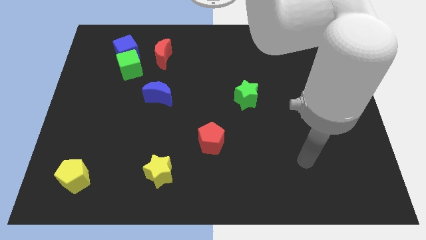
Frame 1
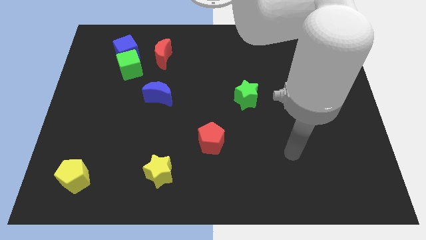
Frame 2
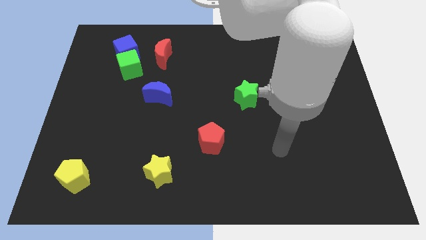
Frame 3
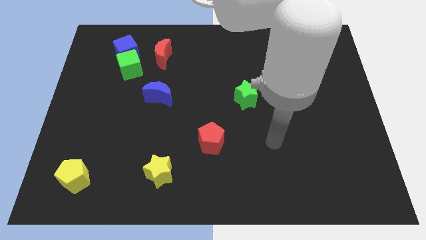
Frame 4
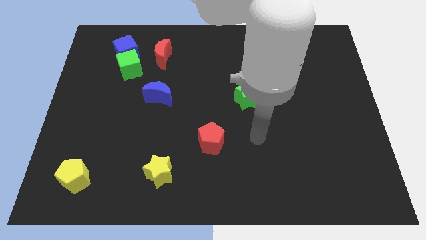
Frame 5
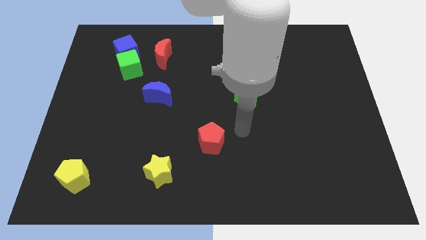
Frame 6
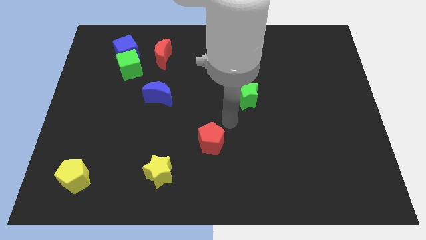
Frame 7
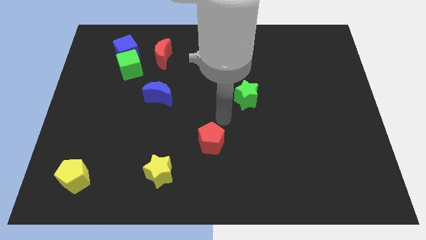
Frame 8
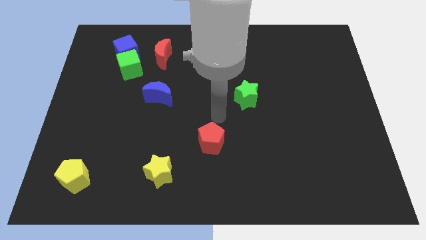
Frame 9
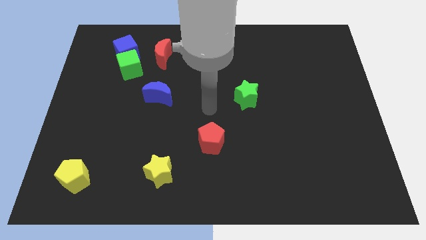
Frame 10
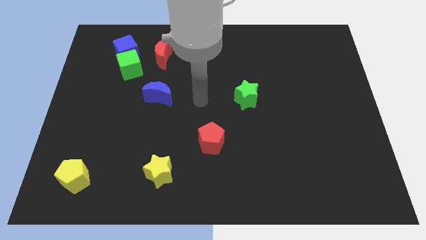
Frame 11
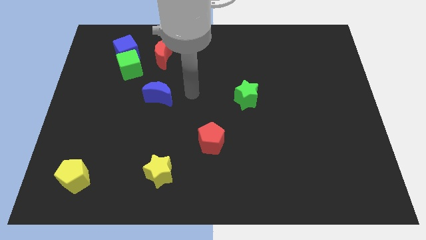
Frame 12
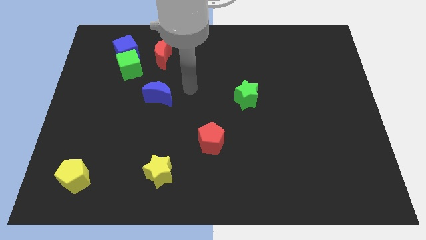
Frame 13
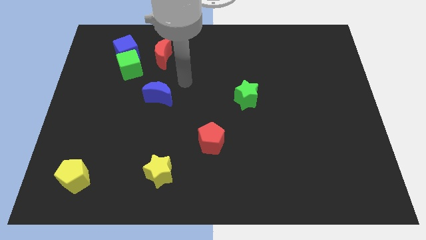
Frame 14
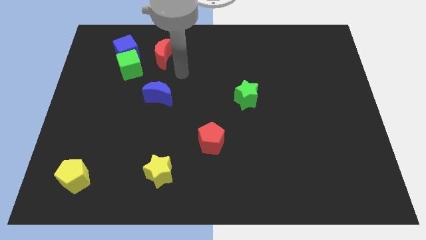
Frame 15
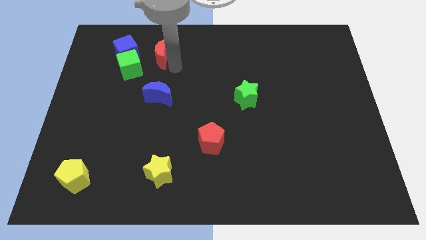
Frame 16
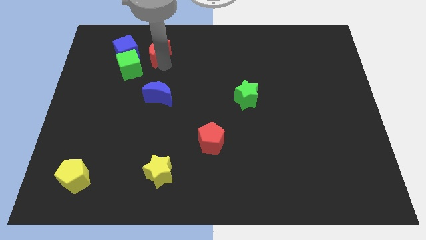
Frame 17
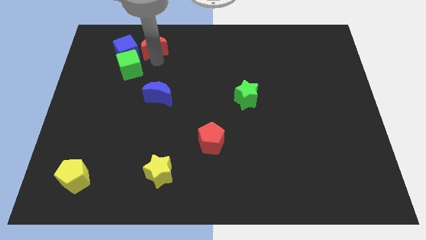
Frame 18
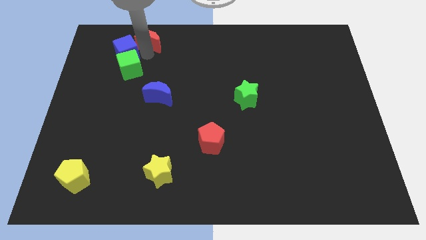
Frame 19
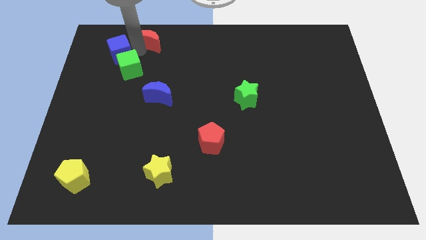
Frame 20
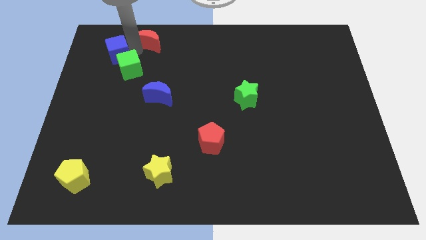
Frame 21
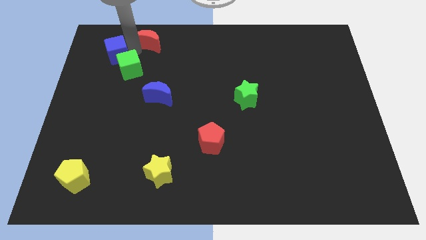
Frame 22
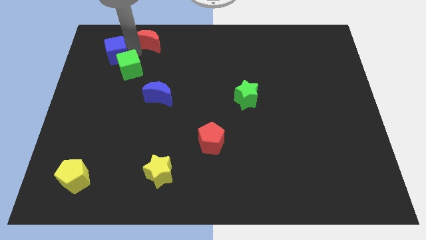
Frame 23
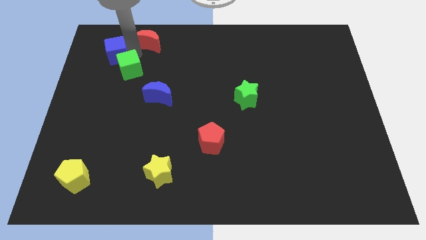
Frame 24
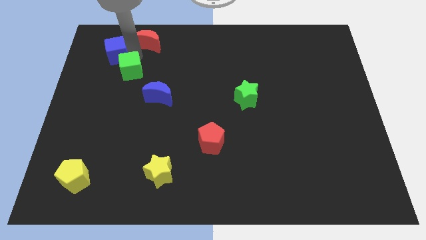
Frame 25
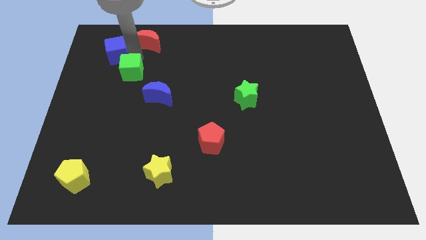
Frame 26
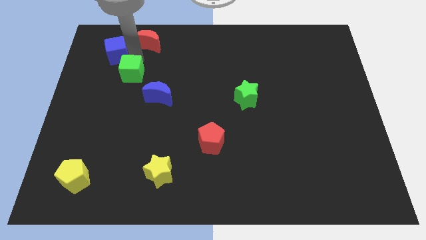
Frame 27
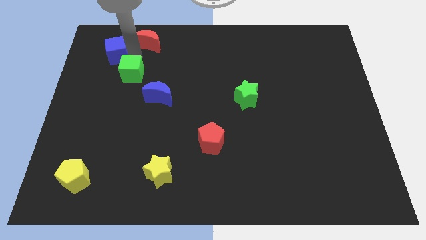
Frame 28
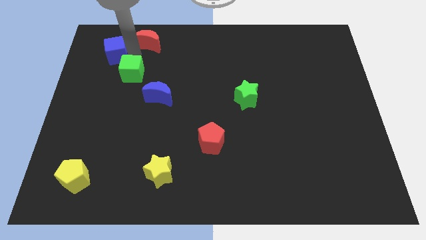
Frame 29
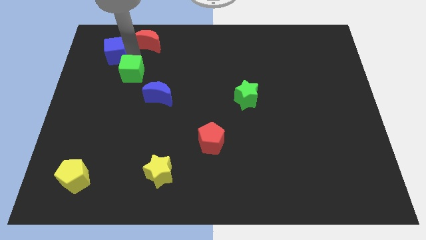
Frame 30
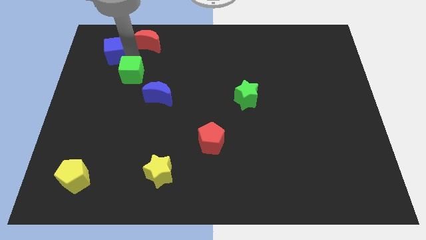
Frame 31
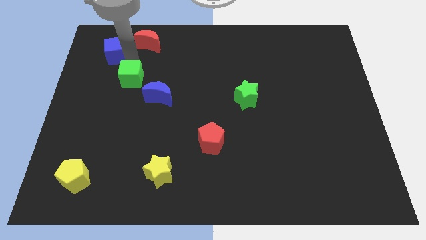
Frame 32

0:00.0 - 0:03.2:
move the green cube away from the blue cube and red moon

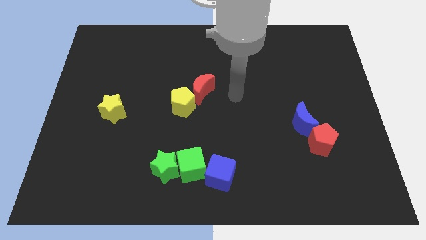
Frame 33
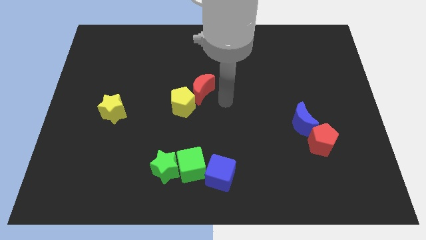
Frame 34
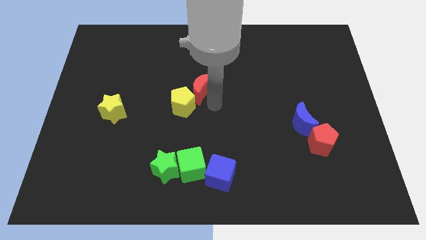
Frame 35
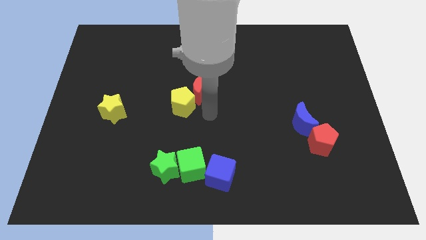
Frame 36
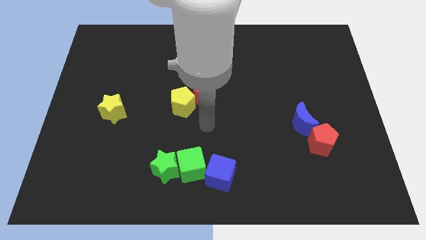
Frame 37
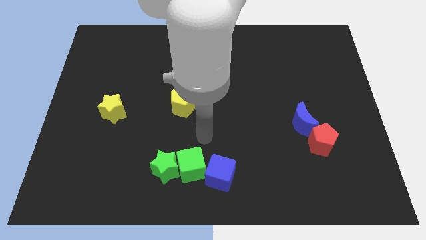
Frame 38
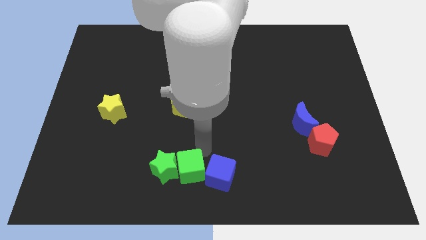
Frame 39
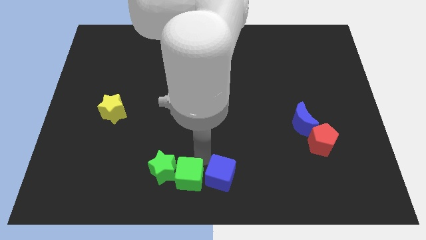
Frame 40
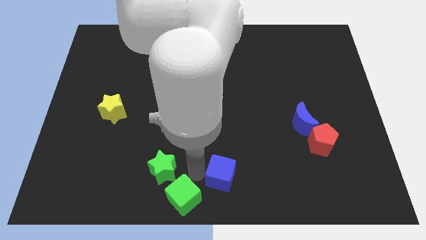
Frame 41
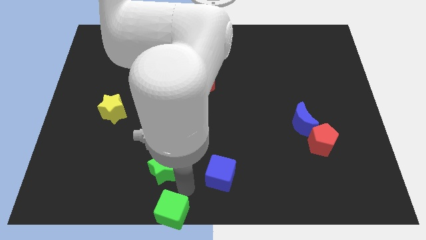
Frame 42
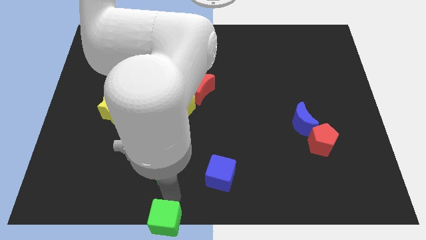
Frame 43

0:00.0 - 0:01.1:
pull the green star apart from the green cube

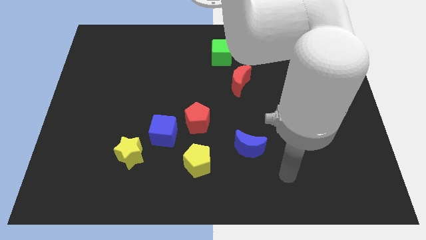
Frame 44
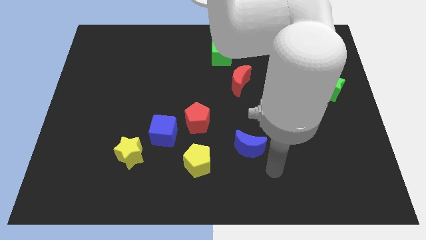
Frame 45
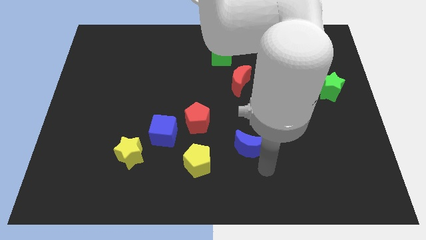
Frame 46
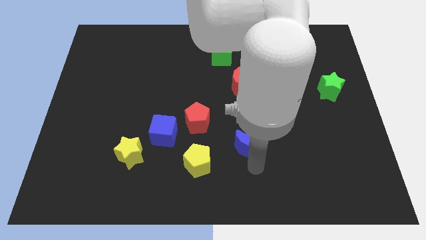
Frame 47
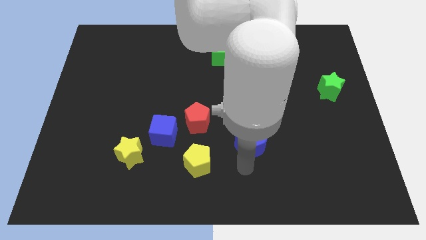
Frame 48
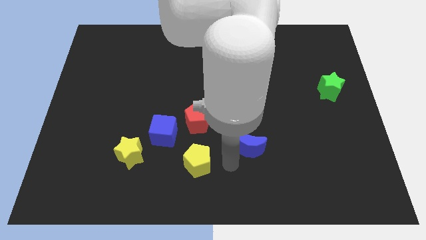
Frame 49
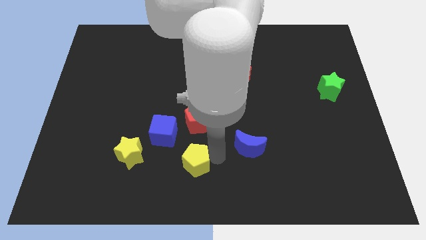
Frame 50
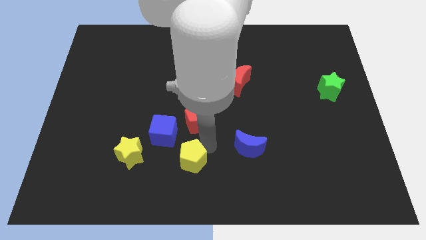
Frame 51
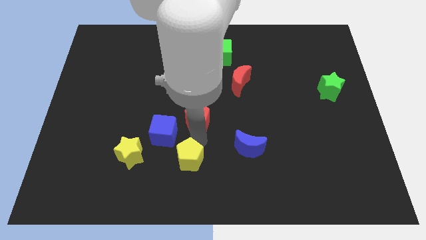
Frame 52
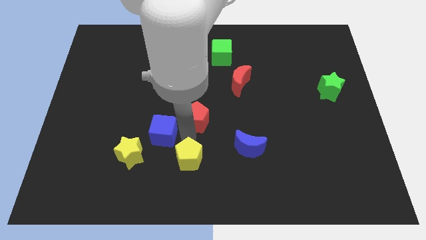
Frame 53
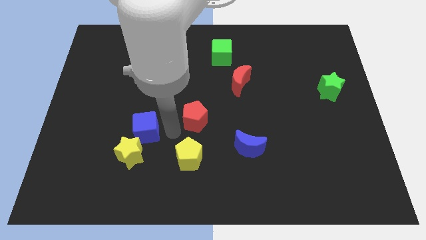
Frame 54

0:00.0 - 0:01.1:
move the red pentagon away from the blue cube

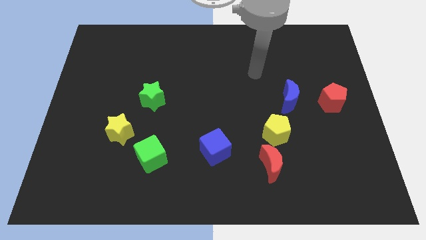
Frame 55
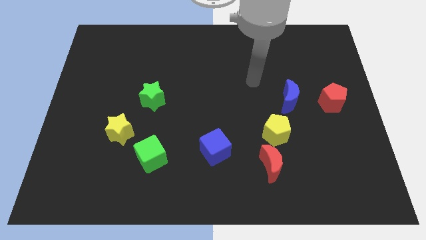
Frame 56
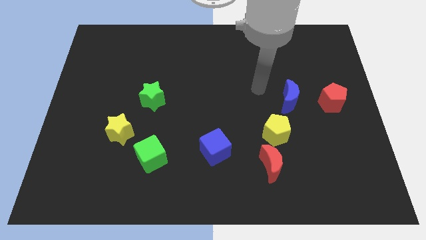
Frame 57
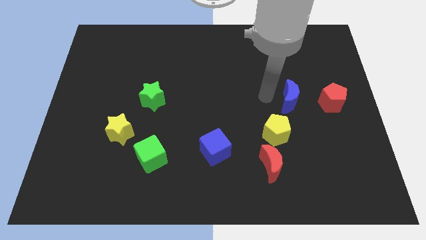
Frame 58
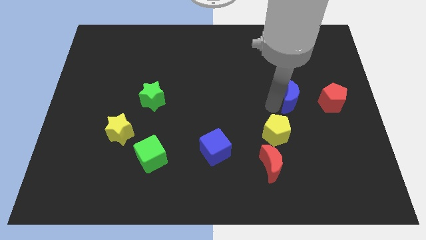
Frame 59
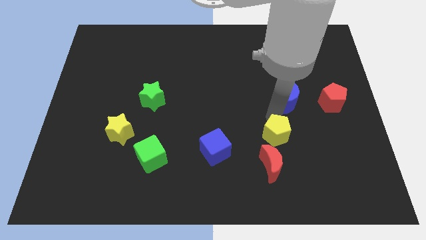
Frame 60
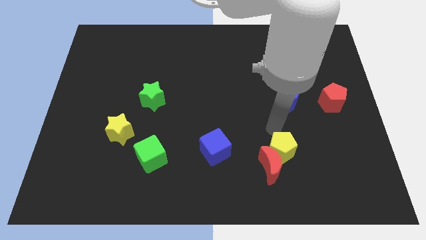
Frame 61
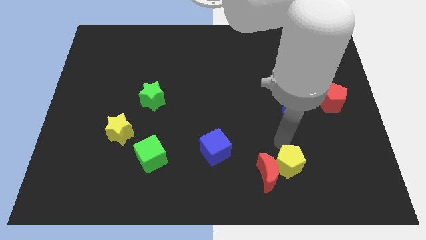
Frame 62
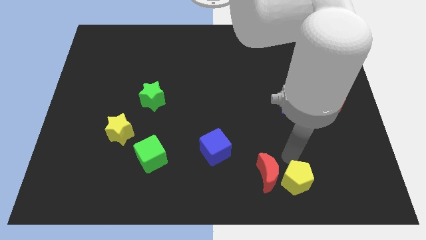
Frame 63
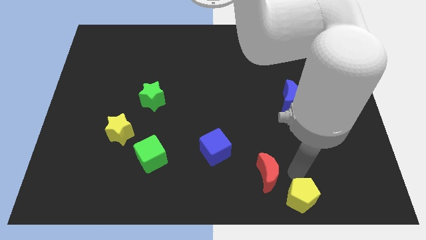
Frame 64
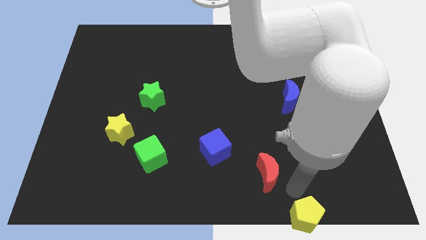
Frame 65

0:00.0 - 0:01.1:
pull the red moon apart from the yellow pentagon

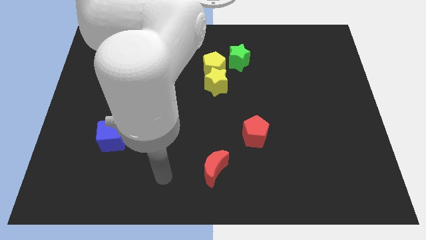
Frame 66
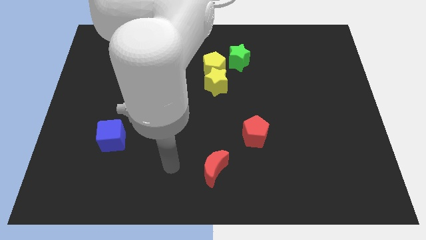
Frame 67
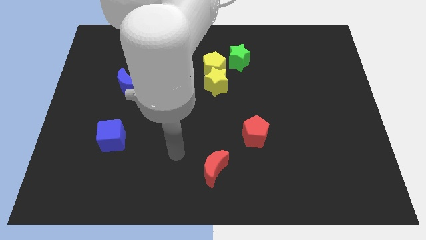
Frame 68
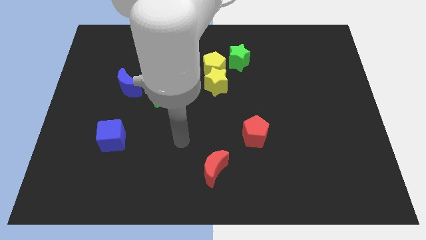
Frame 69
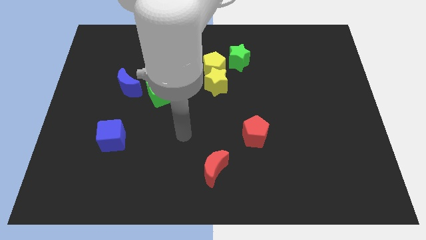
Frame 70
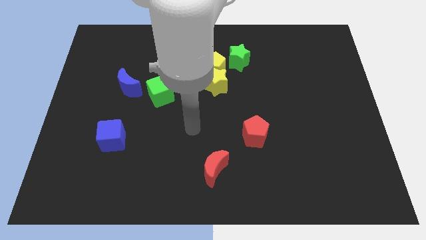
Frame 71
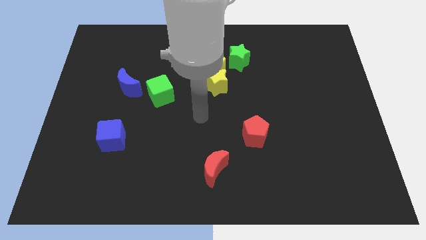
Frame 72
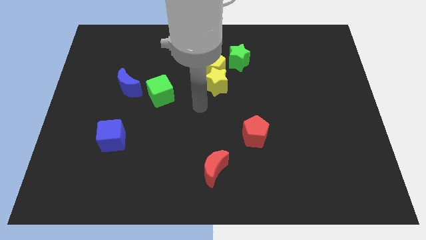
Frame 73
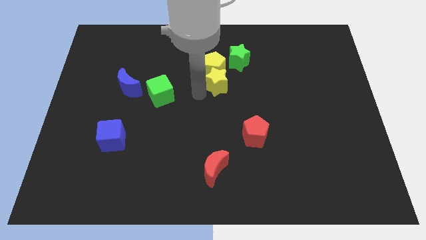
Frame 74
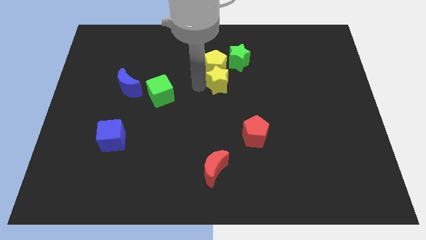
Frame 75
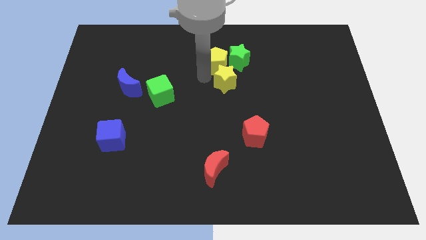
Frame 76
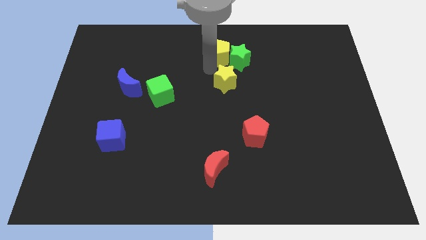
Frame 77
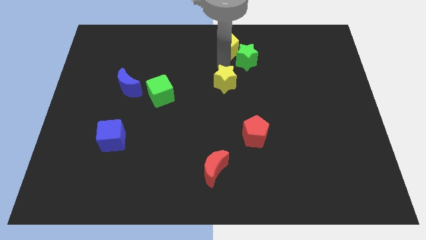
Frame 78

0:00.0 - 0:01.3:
move the yellow star away from the yellow pentagon

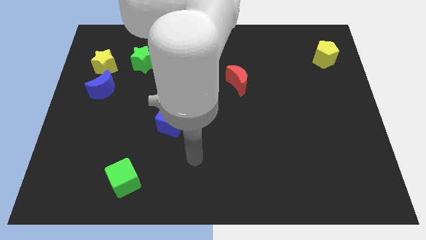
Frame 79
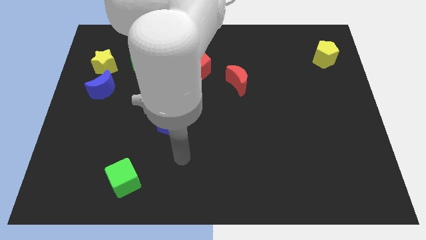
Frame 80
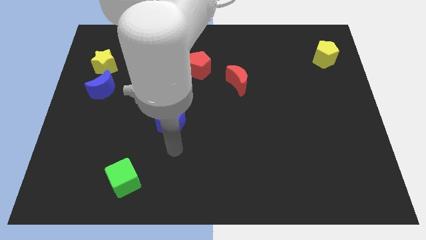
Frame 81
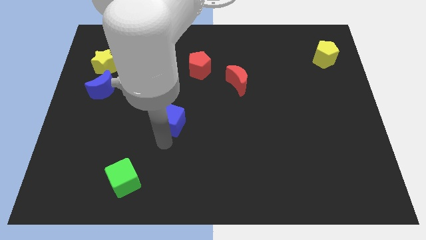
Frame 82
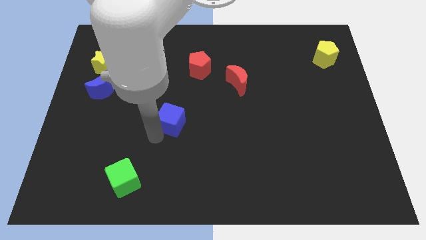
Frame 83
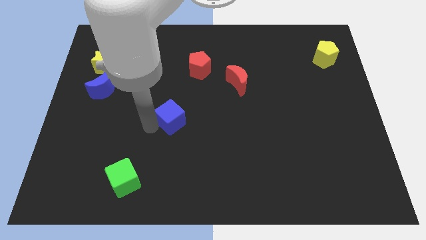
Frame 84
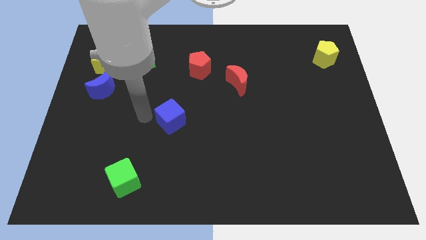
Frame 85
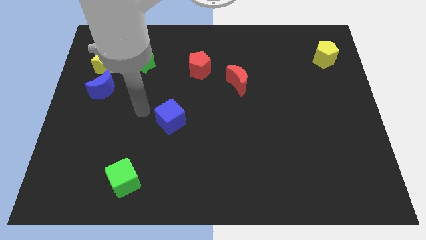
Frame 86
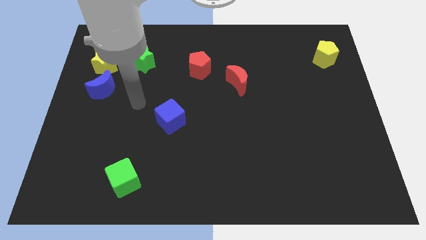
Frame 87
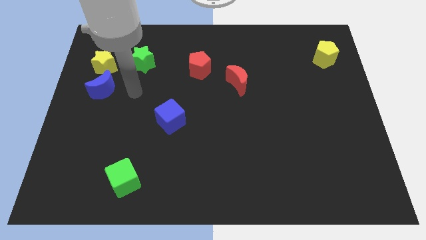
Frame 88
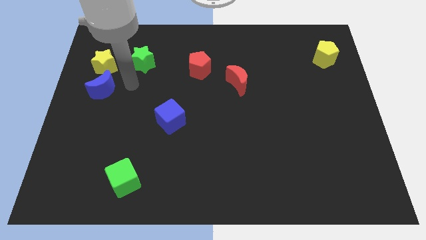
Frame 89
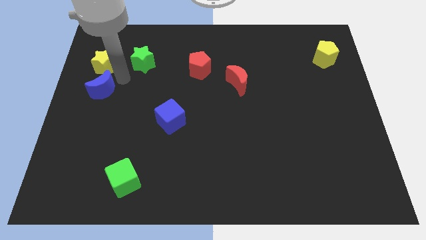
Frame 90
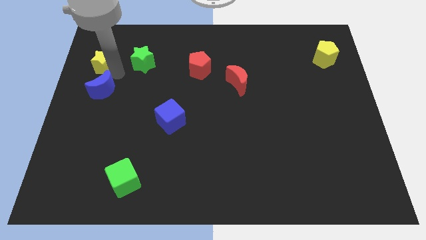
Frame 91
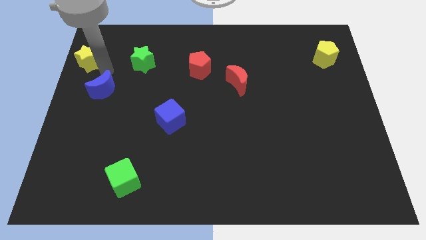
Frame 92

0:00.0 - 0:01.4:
move the blue moon away from the yellow star

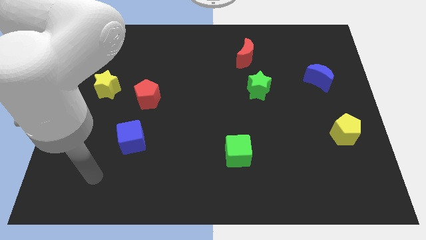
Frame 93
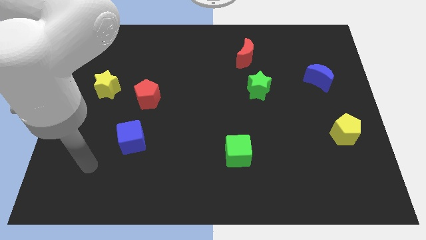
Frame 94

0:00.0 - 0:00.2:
move the red pentagon away from the yellow star
